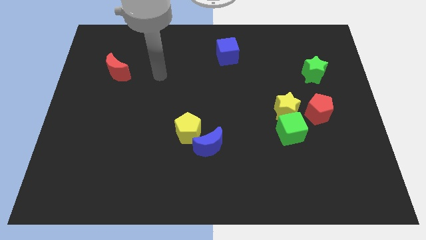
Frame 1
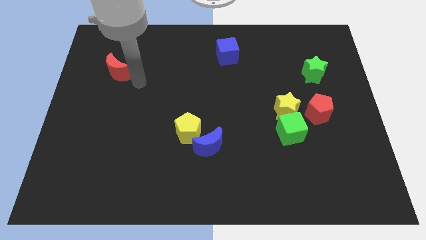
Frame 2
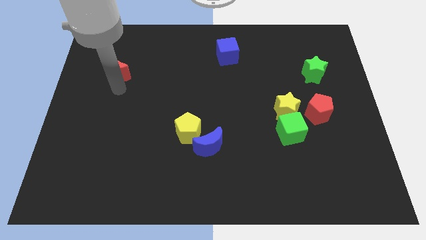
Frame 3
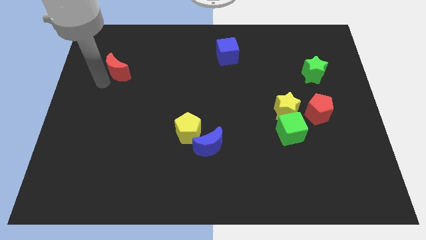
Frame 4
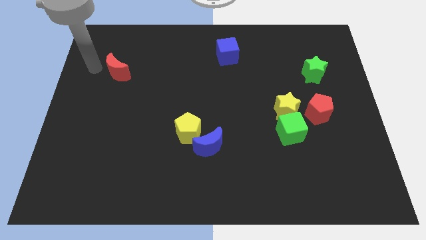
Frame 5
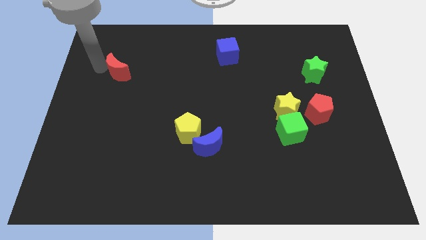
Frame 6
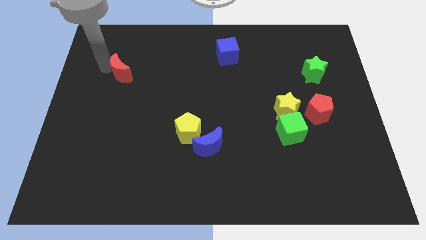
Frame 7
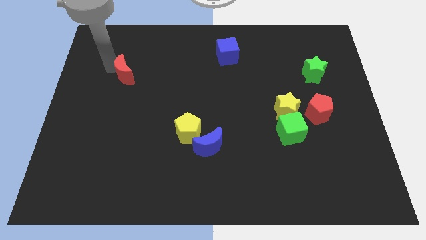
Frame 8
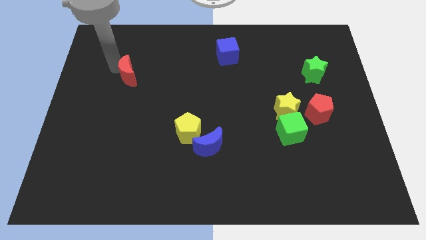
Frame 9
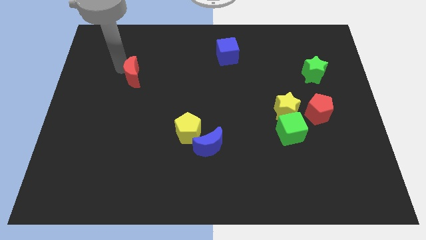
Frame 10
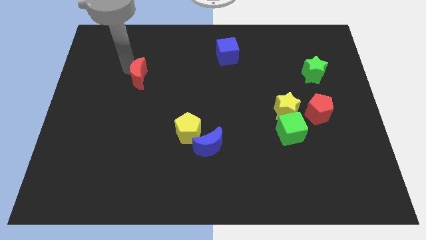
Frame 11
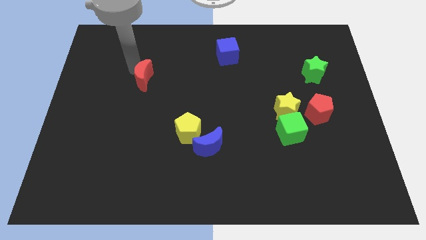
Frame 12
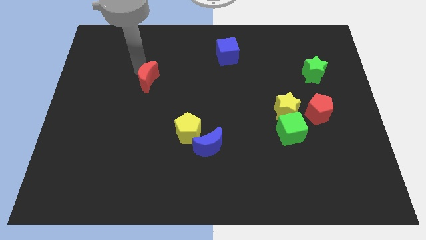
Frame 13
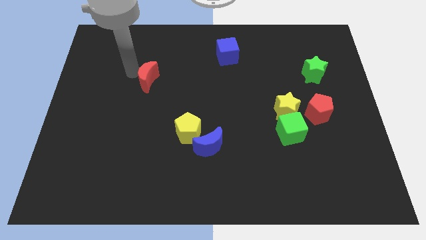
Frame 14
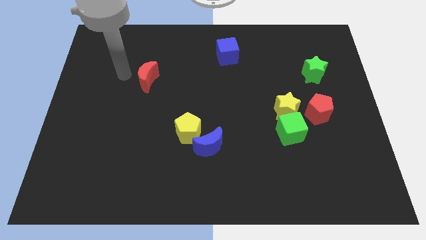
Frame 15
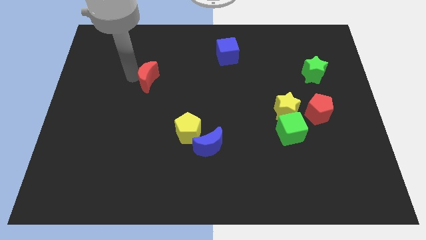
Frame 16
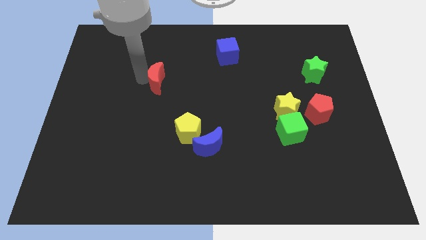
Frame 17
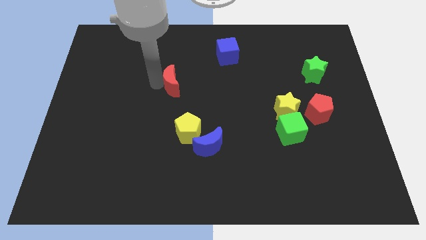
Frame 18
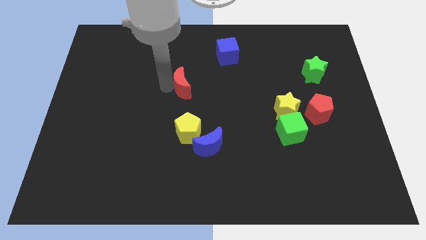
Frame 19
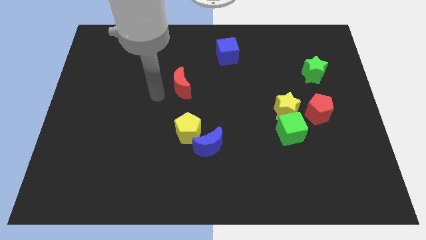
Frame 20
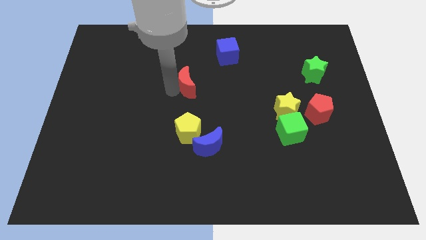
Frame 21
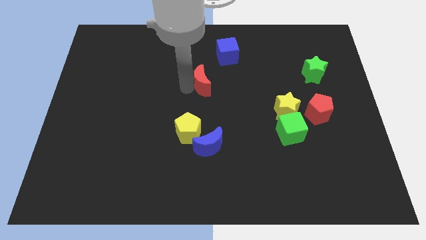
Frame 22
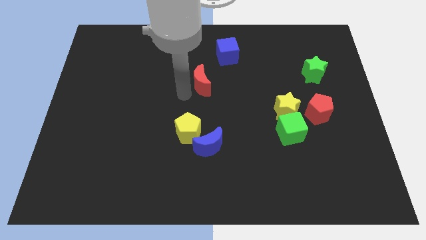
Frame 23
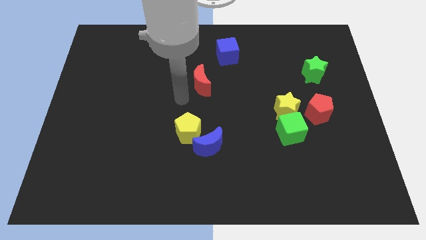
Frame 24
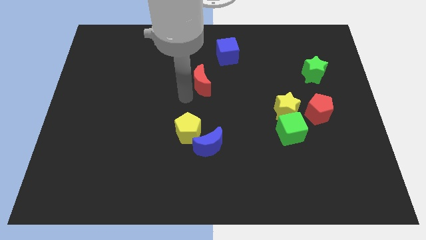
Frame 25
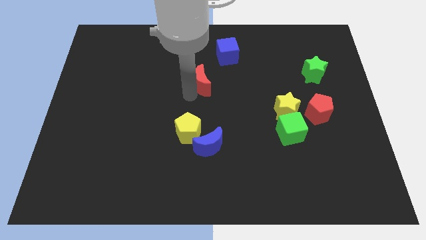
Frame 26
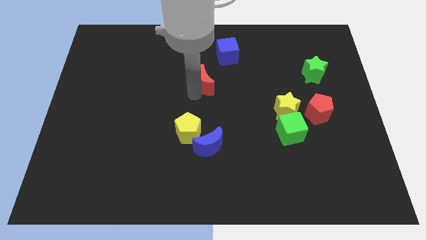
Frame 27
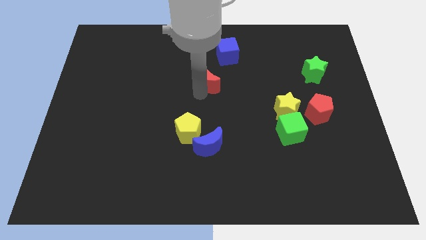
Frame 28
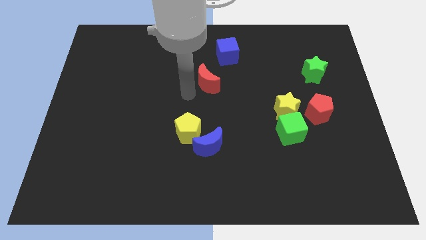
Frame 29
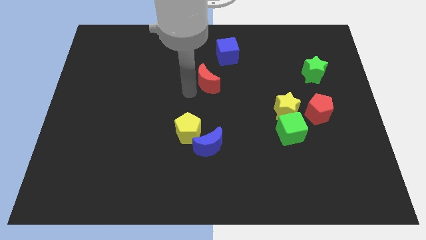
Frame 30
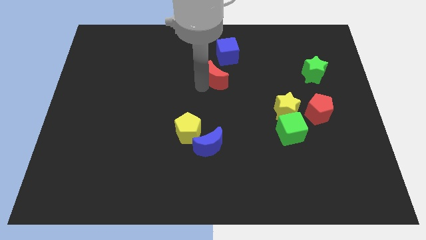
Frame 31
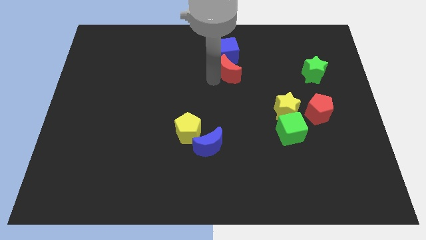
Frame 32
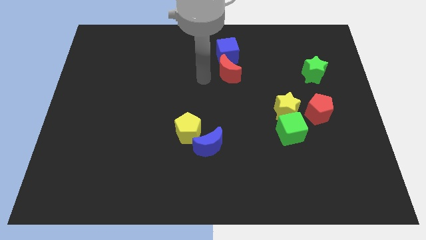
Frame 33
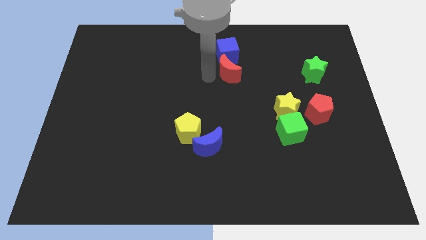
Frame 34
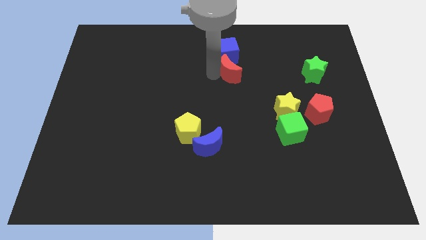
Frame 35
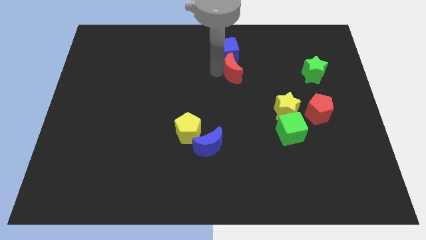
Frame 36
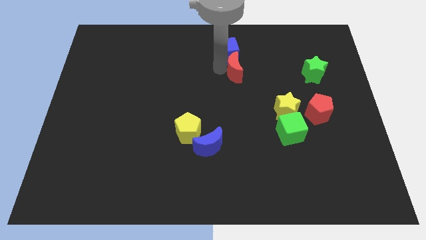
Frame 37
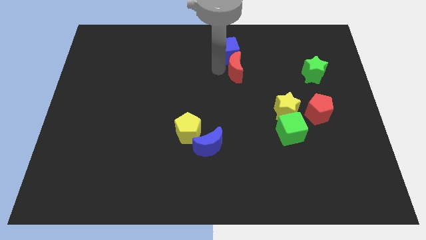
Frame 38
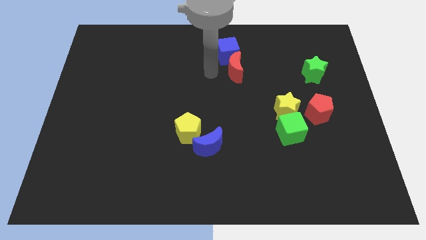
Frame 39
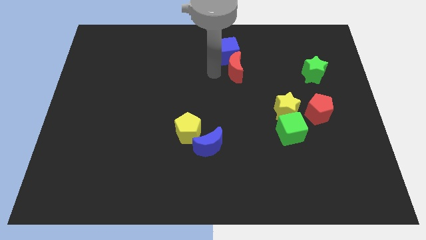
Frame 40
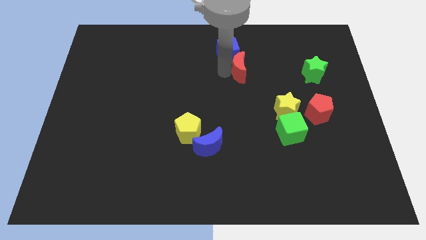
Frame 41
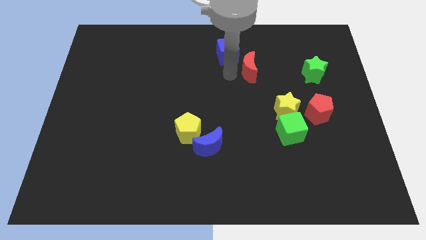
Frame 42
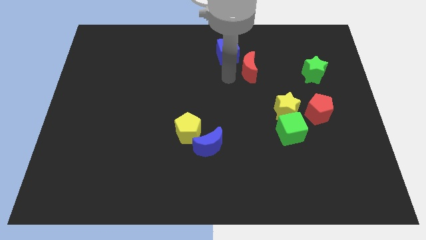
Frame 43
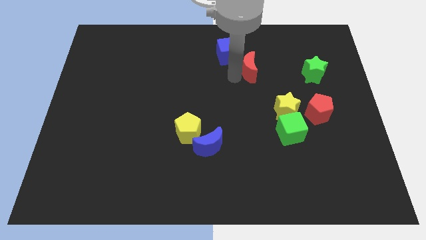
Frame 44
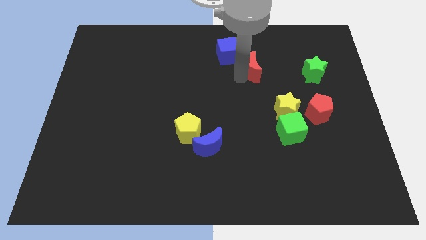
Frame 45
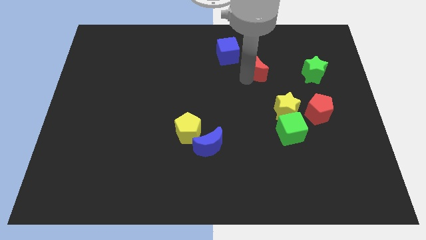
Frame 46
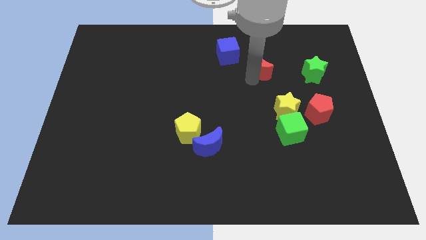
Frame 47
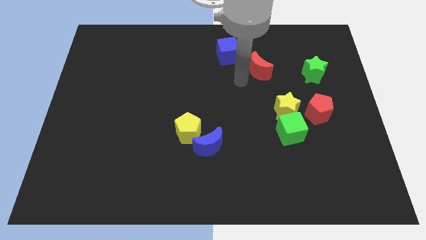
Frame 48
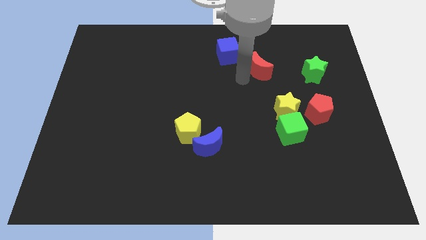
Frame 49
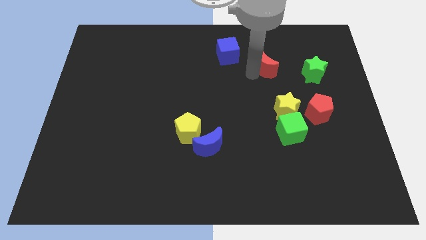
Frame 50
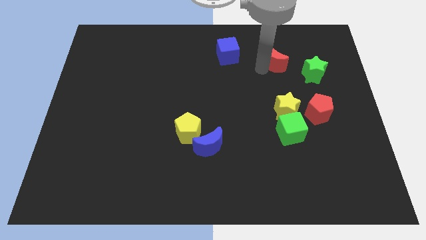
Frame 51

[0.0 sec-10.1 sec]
move the red moon to the top left of the green star

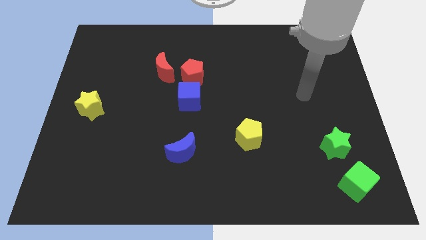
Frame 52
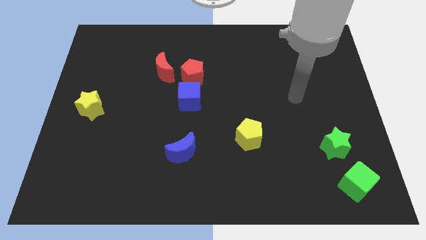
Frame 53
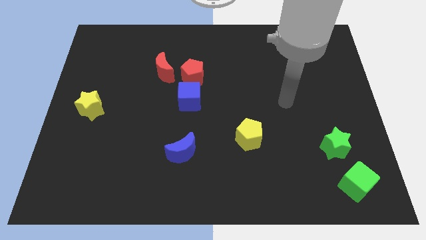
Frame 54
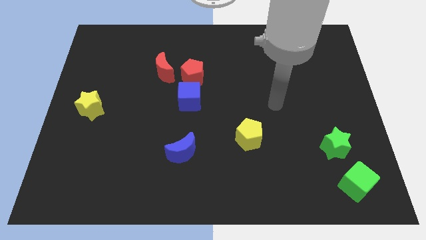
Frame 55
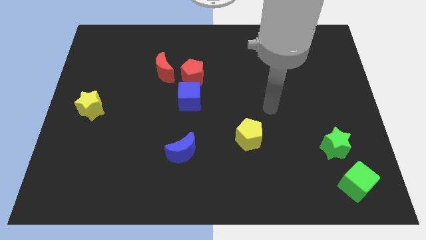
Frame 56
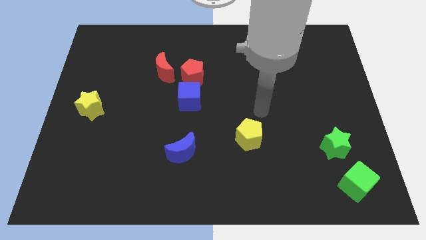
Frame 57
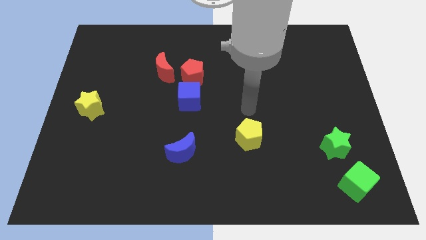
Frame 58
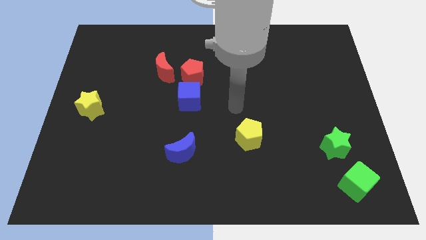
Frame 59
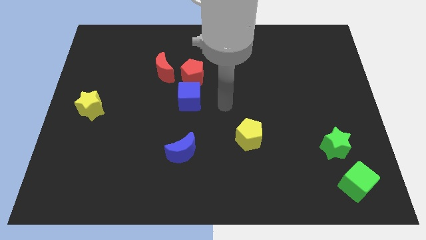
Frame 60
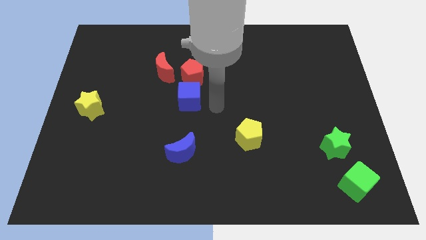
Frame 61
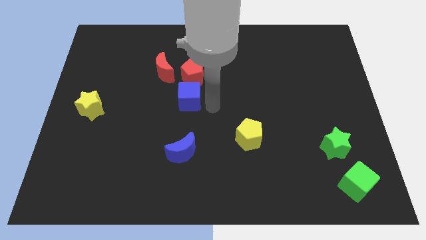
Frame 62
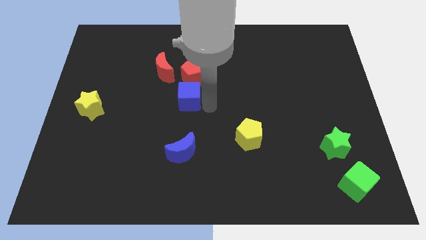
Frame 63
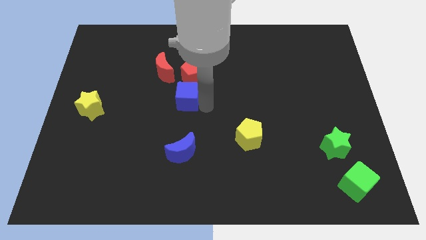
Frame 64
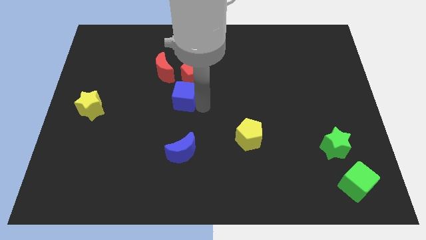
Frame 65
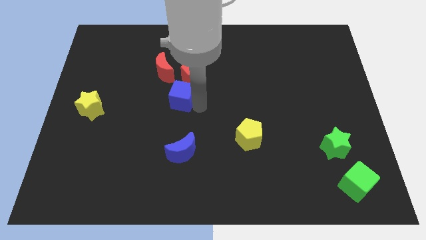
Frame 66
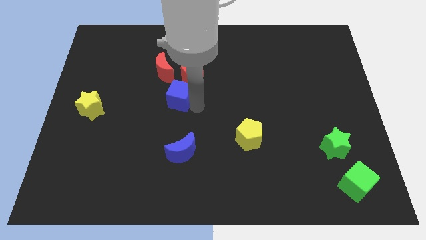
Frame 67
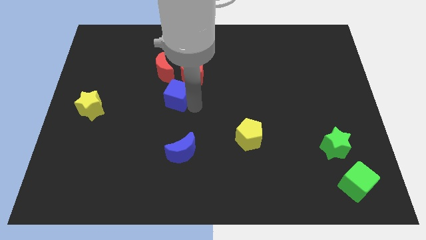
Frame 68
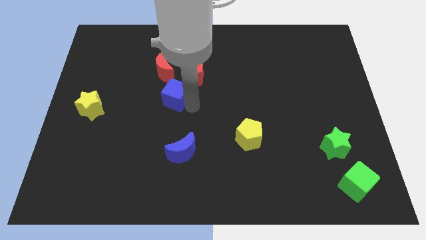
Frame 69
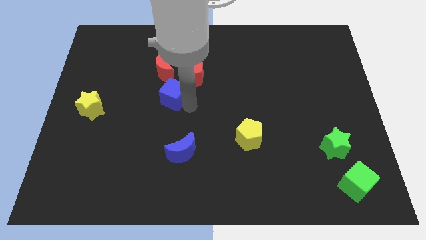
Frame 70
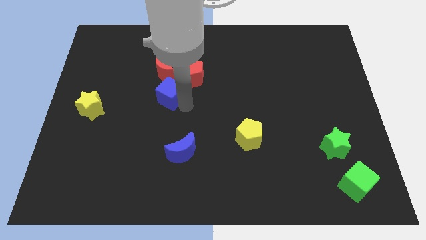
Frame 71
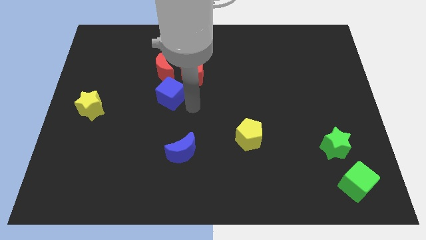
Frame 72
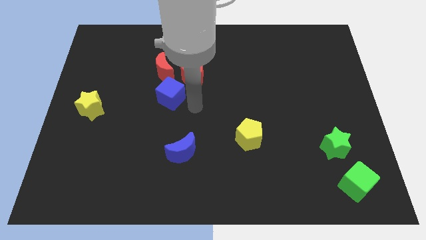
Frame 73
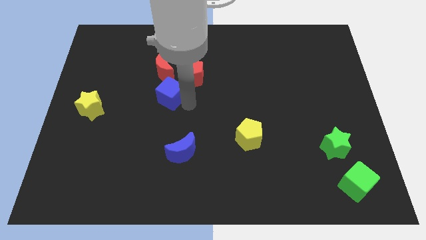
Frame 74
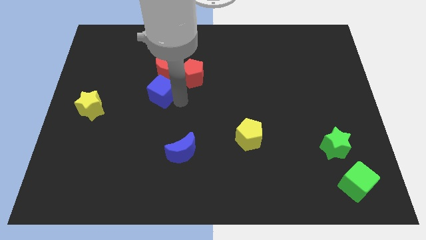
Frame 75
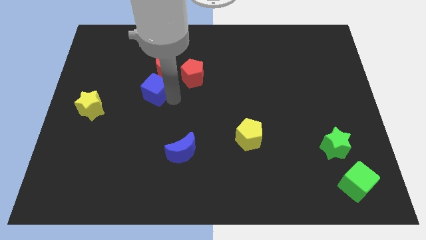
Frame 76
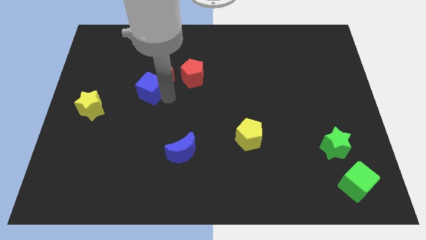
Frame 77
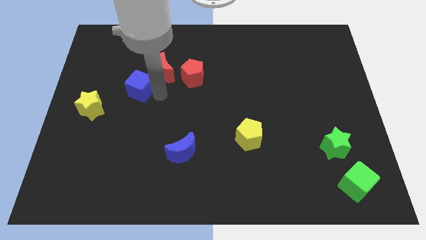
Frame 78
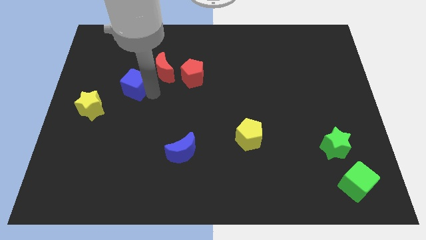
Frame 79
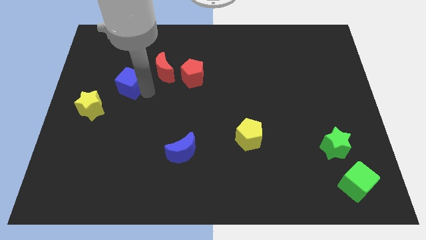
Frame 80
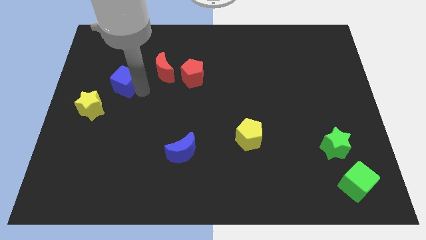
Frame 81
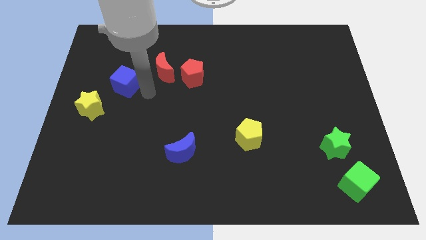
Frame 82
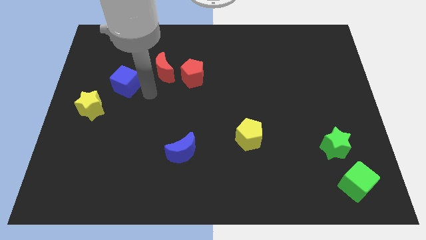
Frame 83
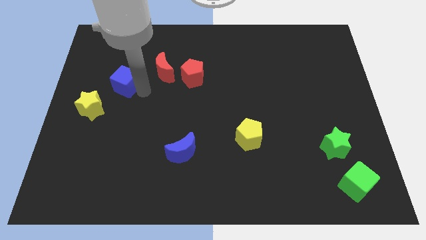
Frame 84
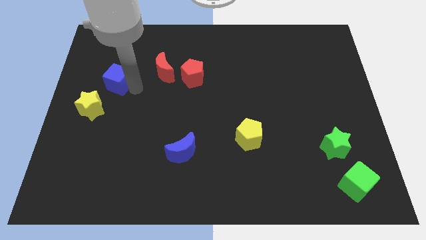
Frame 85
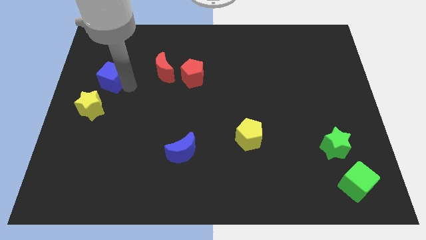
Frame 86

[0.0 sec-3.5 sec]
slide the blue cube to the top of the yellow star
